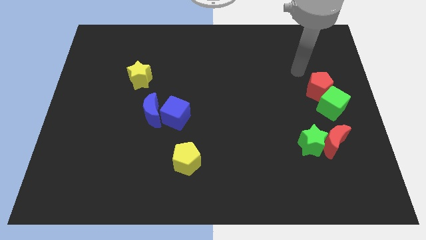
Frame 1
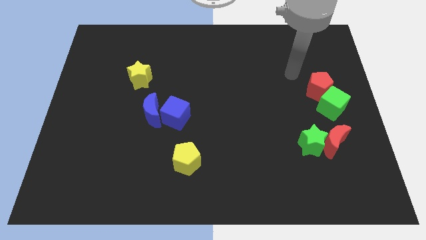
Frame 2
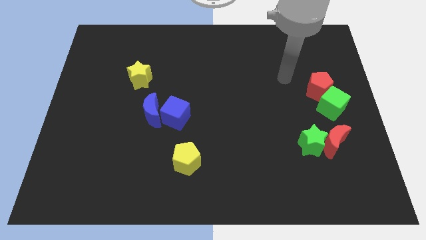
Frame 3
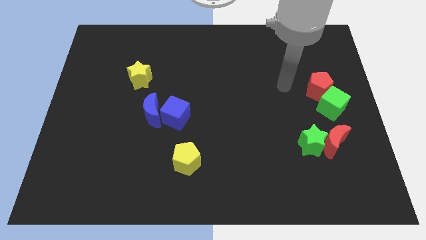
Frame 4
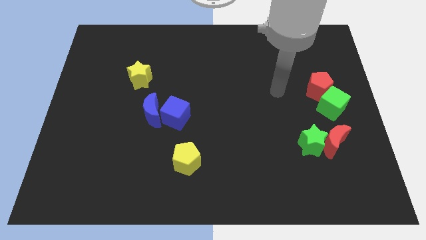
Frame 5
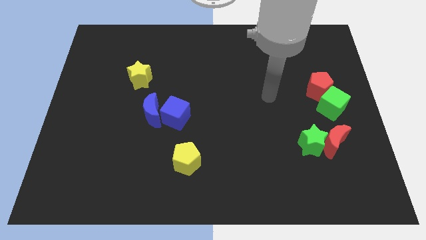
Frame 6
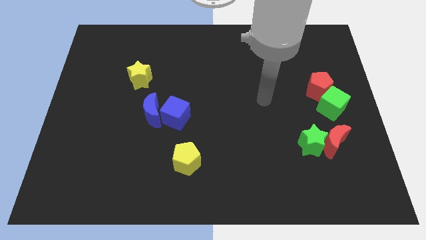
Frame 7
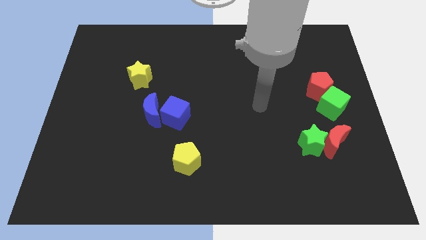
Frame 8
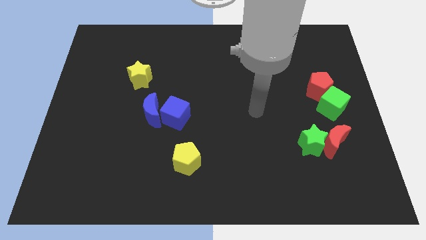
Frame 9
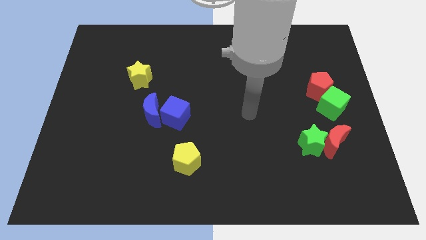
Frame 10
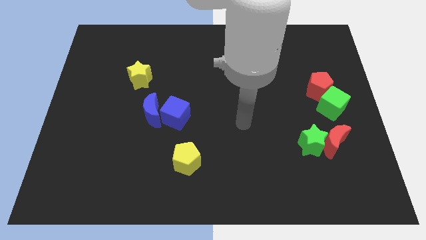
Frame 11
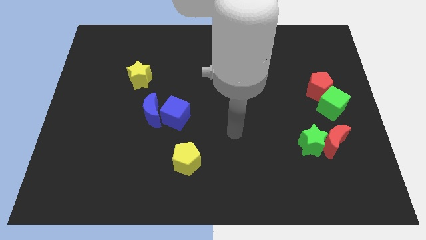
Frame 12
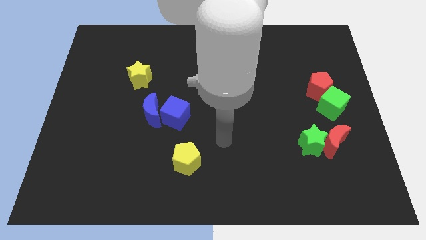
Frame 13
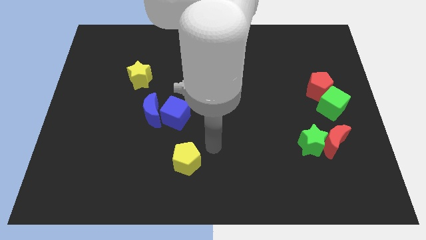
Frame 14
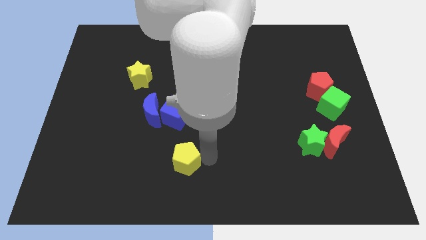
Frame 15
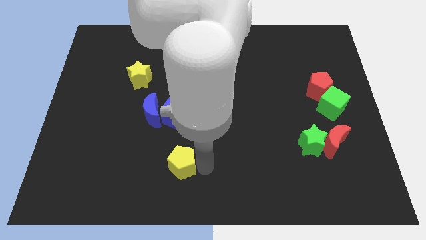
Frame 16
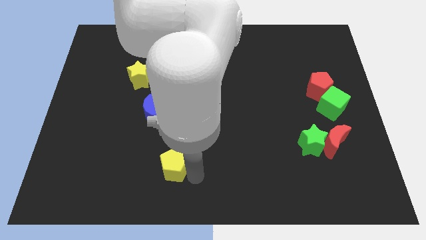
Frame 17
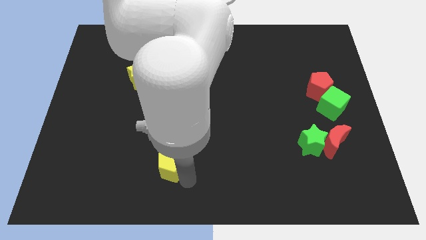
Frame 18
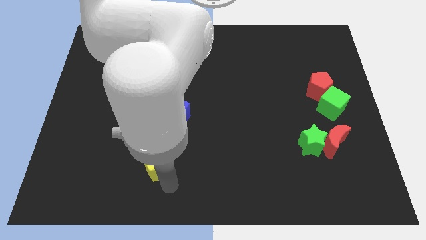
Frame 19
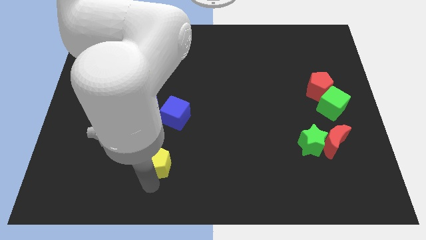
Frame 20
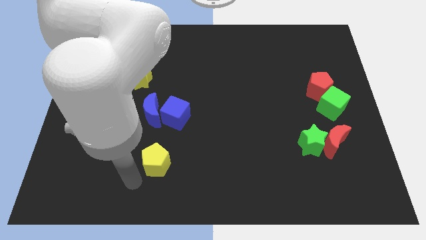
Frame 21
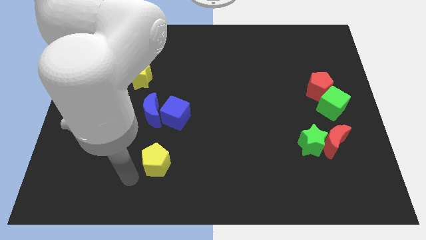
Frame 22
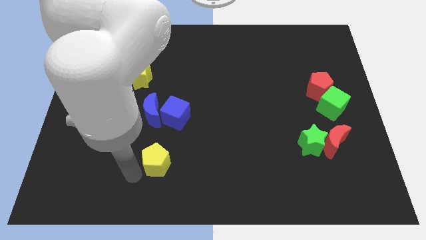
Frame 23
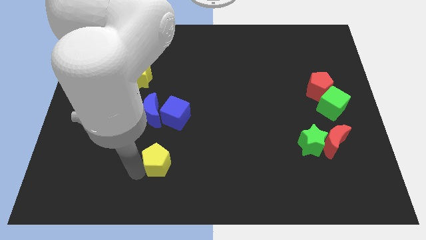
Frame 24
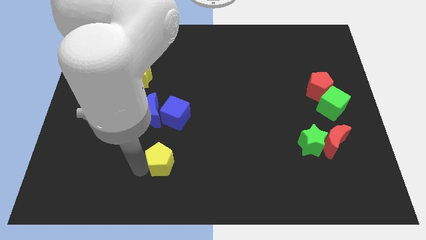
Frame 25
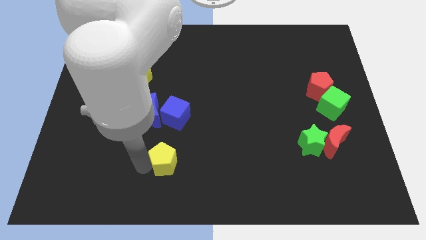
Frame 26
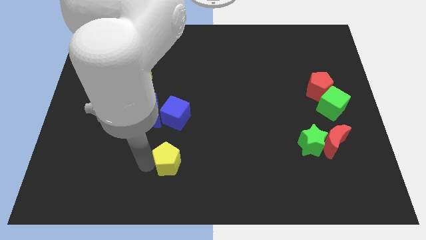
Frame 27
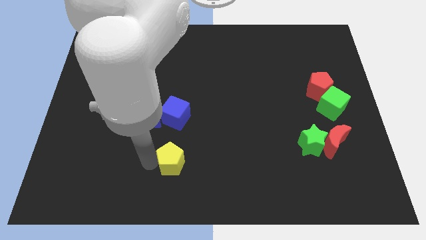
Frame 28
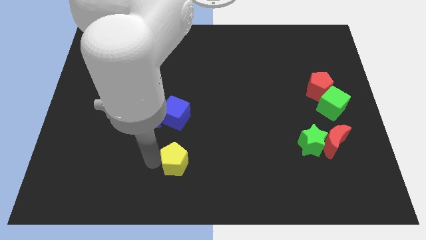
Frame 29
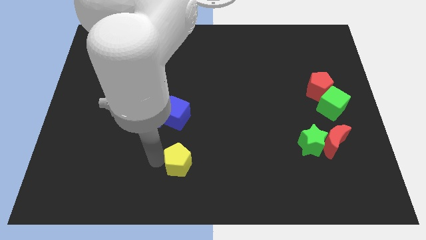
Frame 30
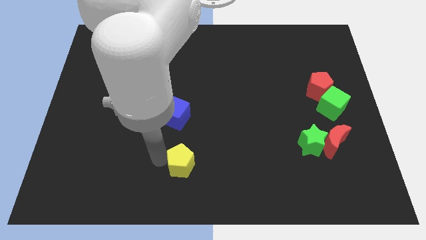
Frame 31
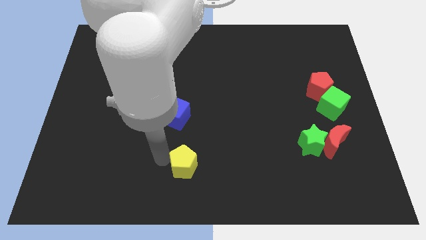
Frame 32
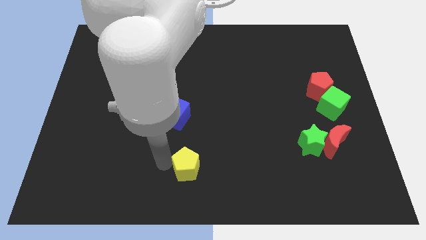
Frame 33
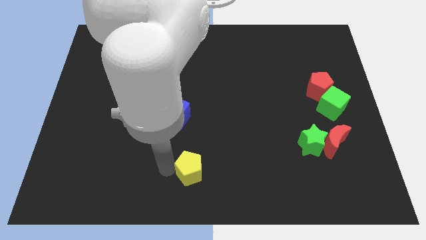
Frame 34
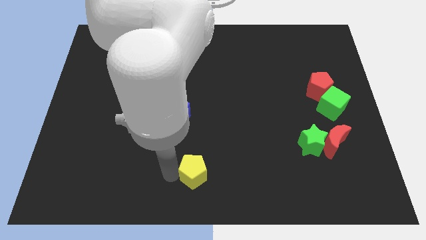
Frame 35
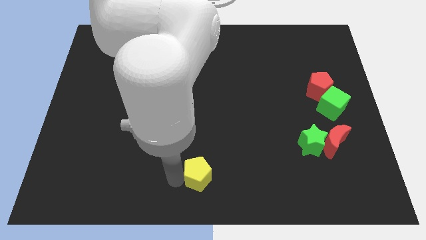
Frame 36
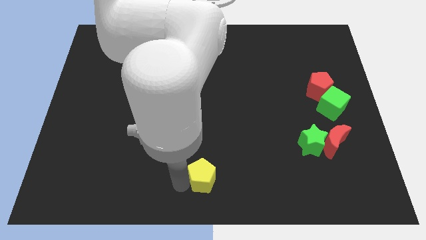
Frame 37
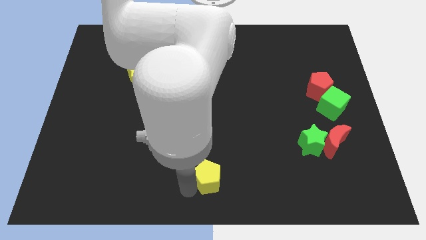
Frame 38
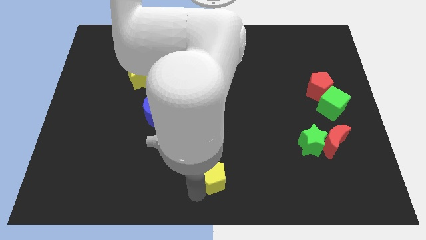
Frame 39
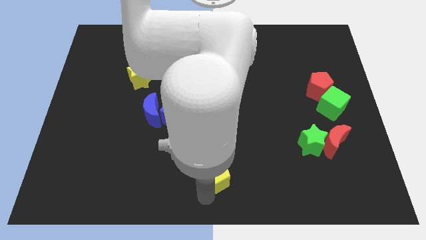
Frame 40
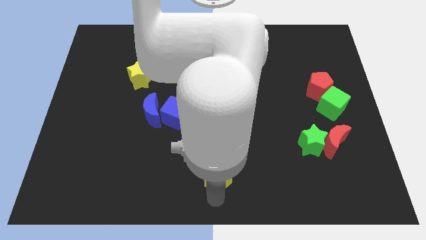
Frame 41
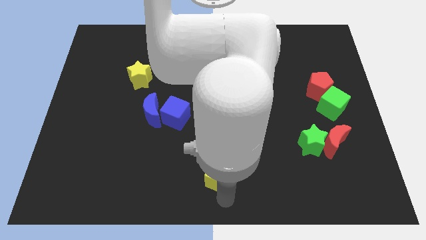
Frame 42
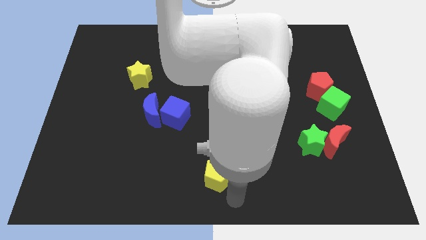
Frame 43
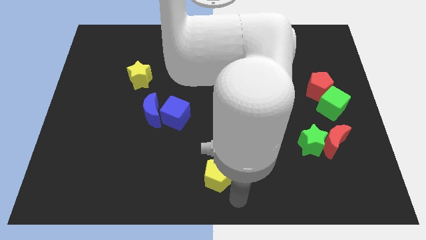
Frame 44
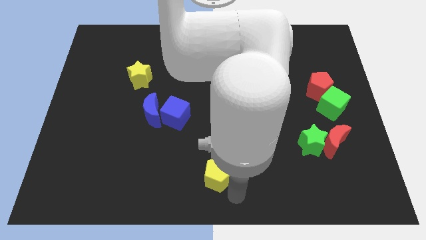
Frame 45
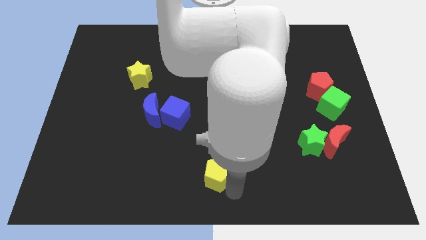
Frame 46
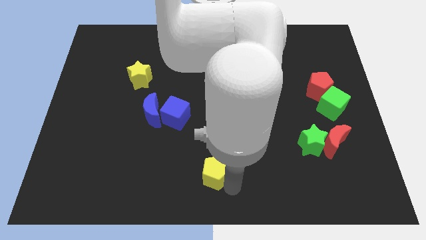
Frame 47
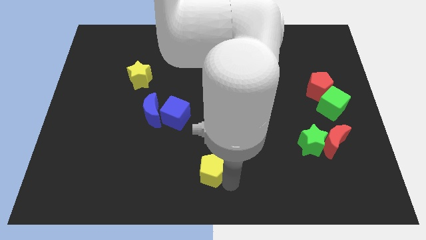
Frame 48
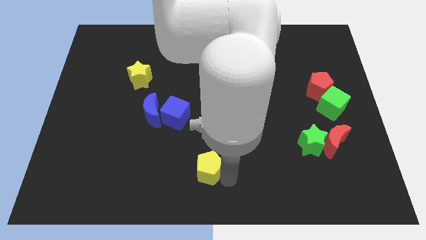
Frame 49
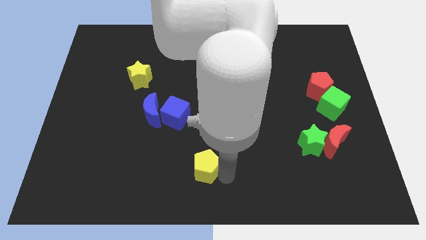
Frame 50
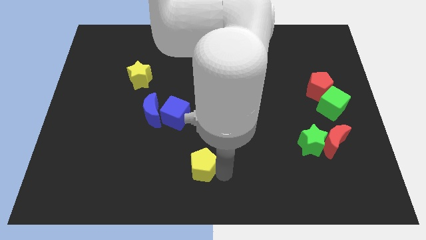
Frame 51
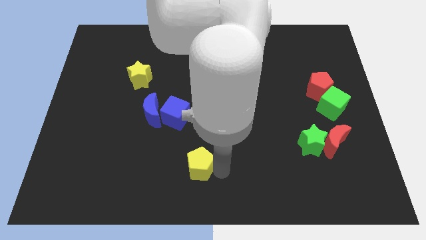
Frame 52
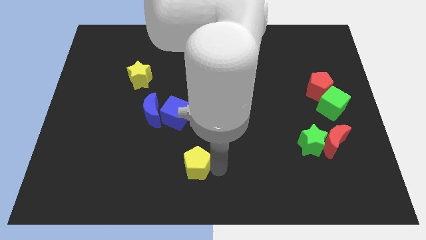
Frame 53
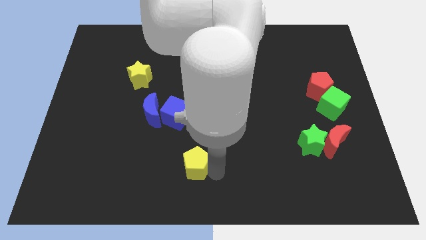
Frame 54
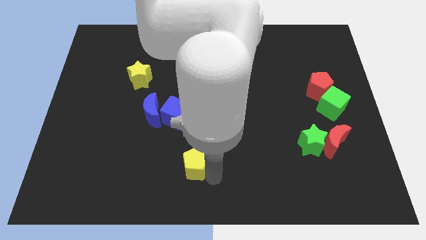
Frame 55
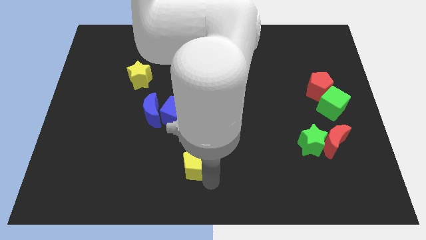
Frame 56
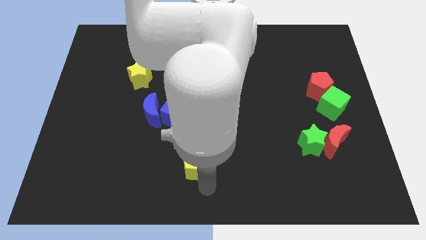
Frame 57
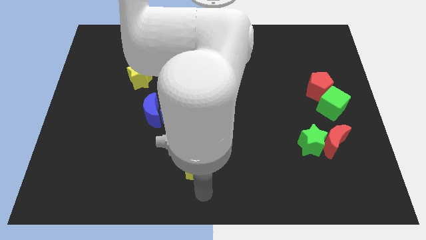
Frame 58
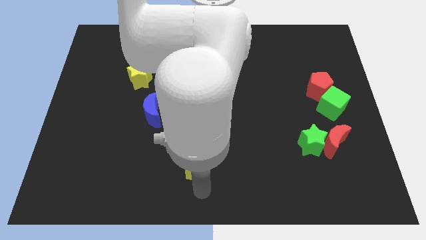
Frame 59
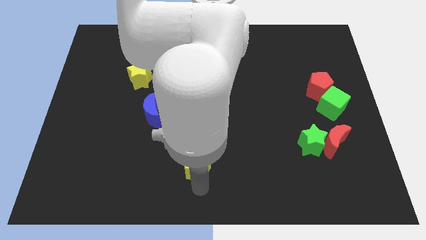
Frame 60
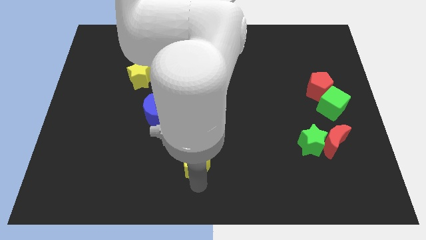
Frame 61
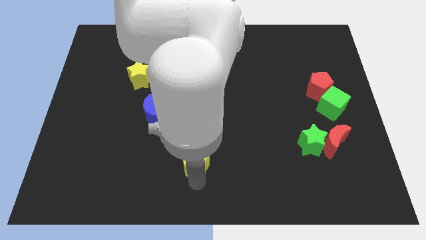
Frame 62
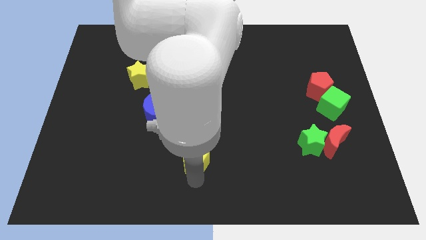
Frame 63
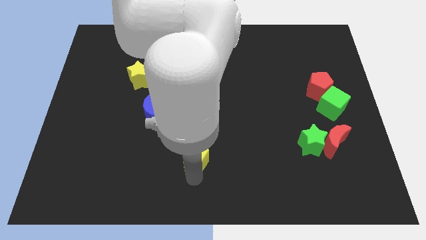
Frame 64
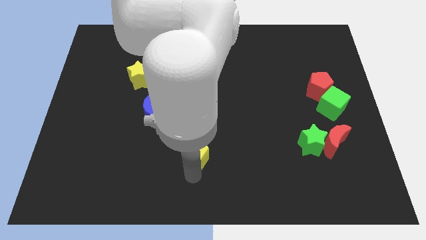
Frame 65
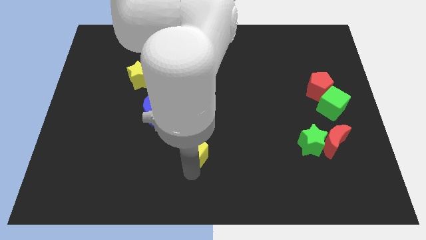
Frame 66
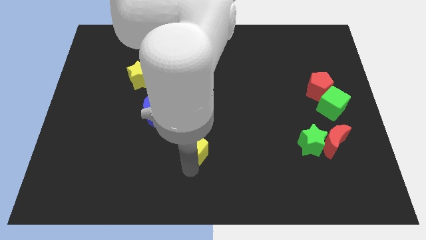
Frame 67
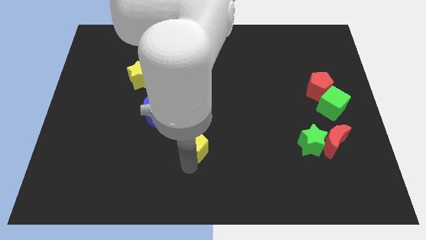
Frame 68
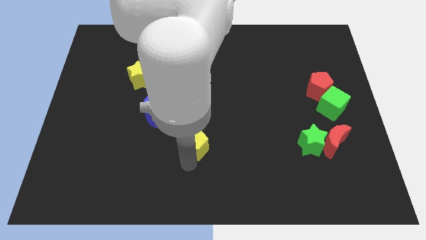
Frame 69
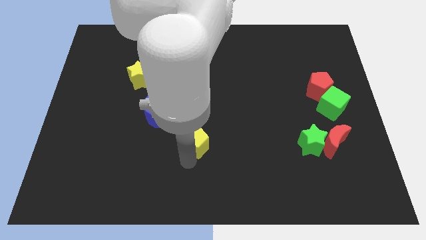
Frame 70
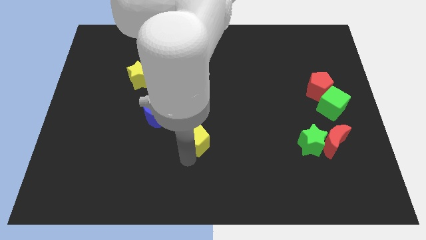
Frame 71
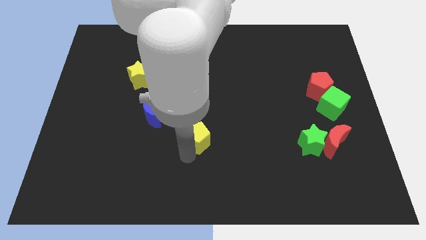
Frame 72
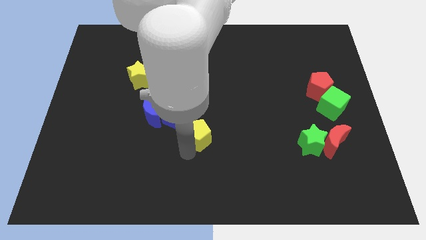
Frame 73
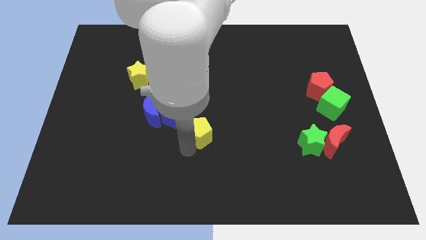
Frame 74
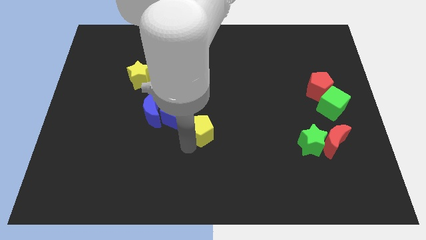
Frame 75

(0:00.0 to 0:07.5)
slightly push the yellow pentagon upwards
